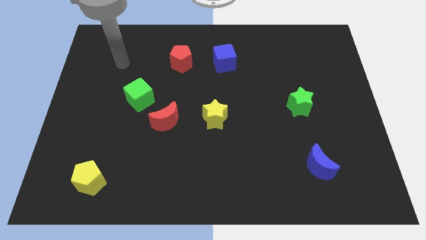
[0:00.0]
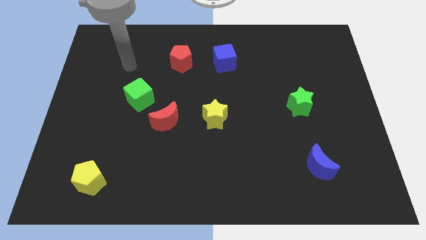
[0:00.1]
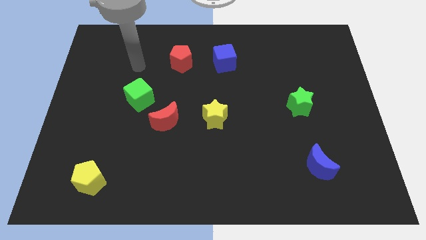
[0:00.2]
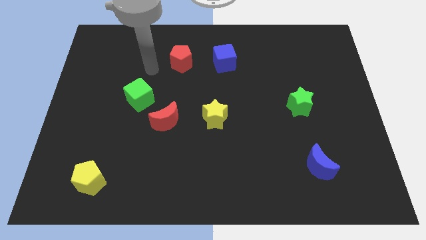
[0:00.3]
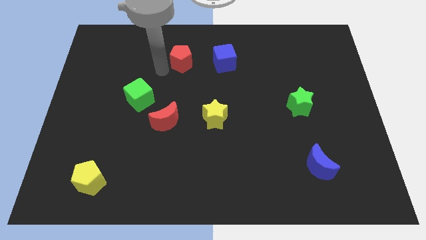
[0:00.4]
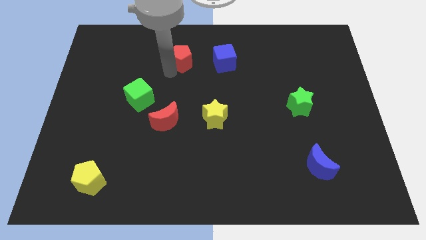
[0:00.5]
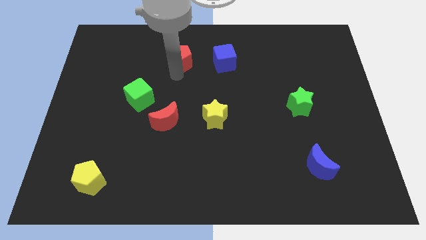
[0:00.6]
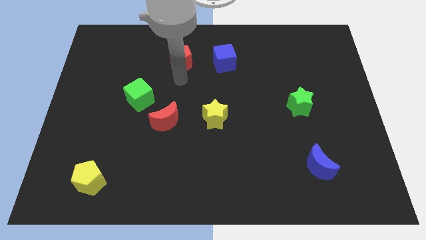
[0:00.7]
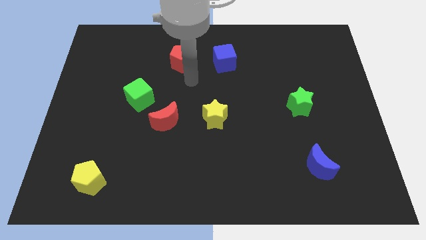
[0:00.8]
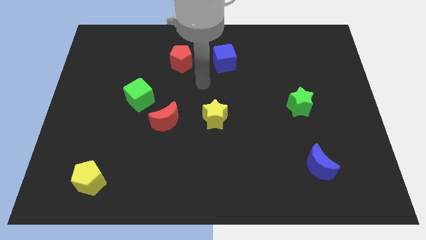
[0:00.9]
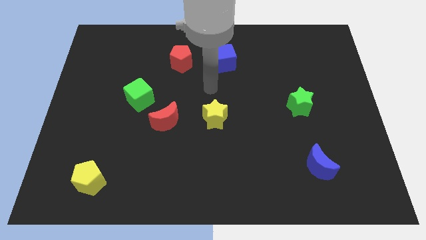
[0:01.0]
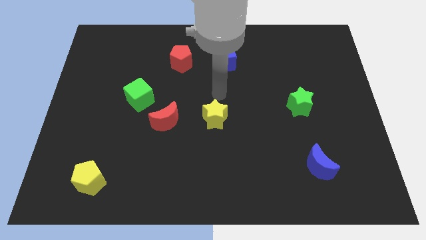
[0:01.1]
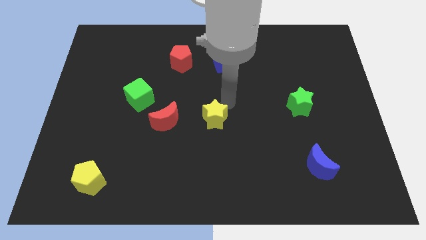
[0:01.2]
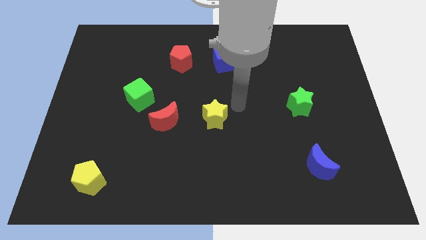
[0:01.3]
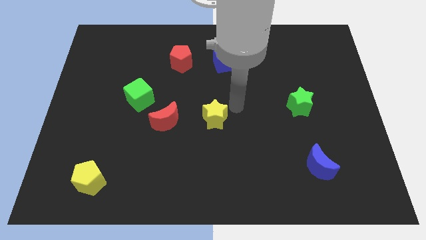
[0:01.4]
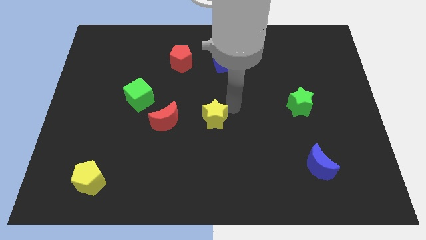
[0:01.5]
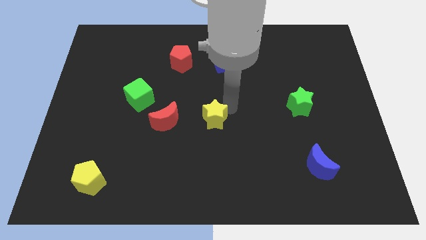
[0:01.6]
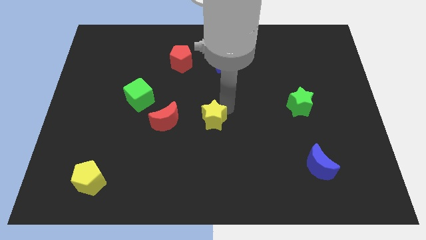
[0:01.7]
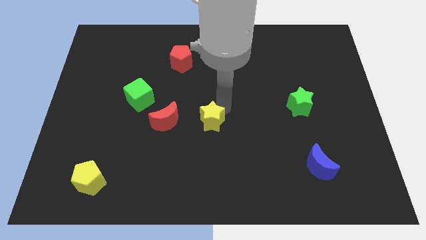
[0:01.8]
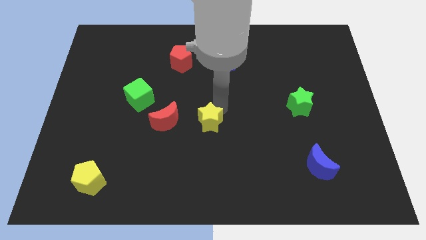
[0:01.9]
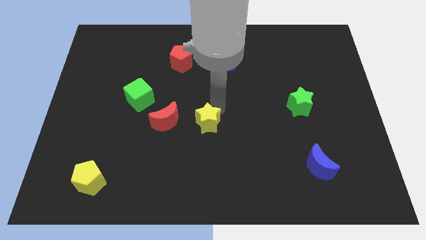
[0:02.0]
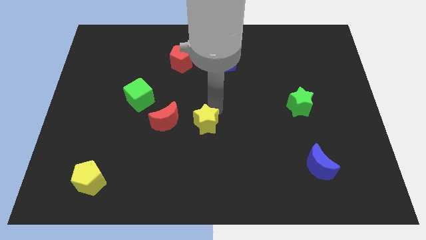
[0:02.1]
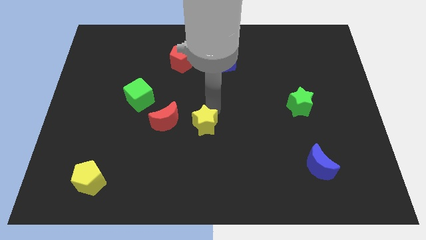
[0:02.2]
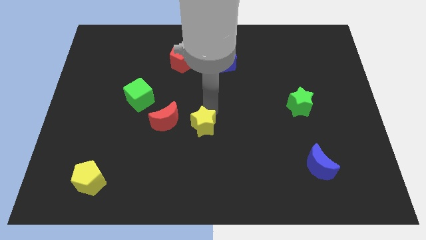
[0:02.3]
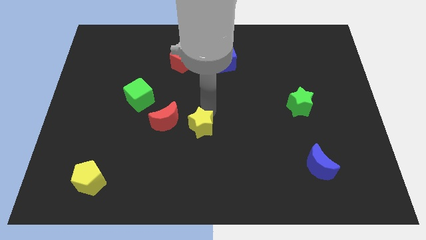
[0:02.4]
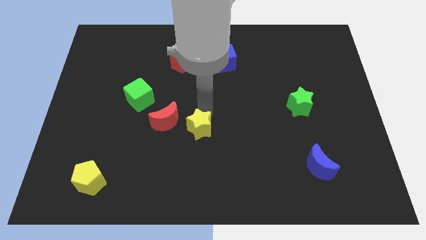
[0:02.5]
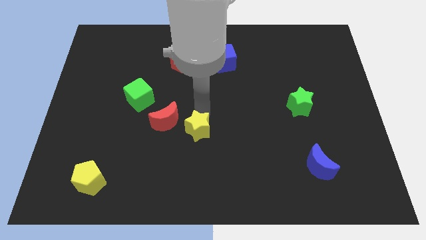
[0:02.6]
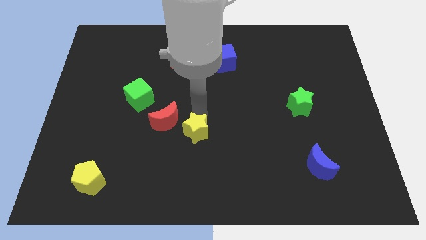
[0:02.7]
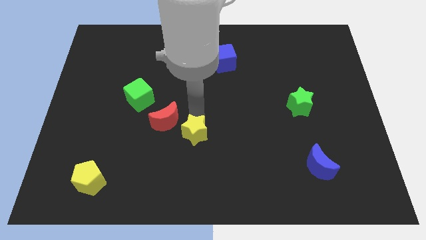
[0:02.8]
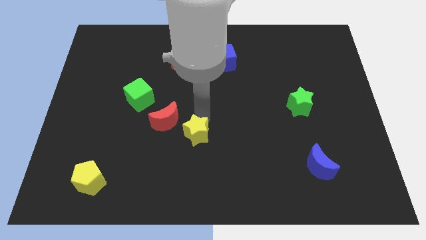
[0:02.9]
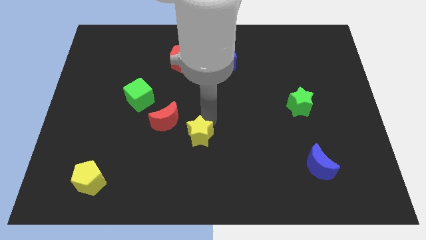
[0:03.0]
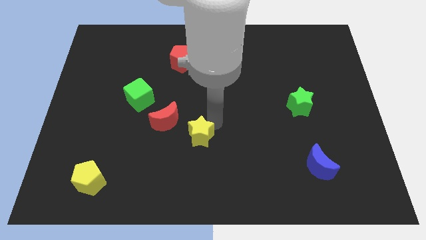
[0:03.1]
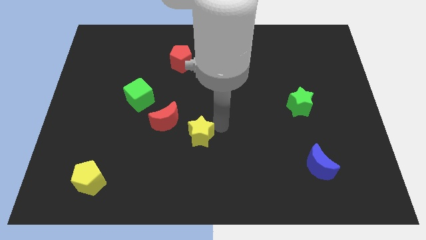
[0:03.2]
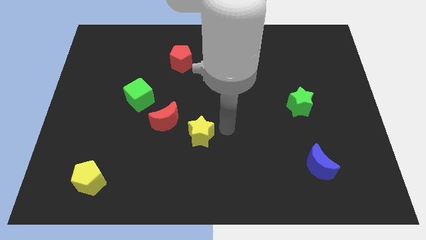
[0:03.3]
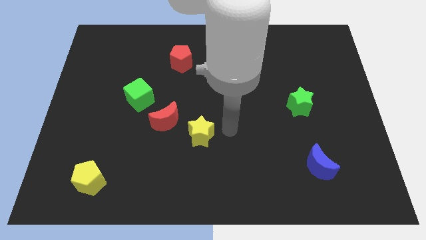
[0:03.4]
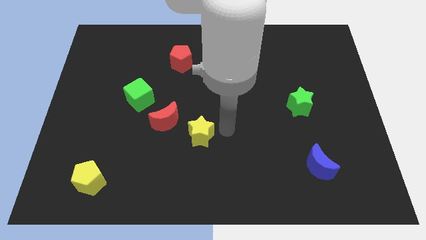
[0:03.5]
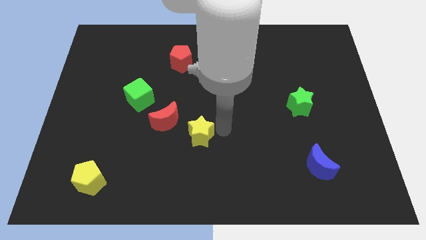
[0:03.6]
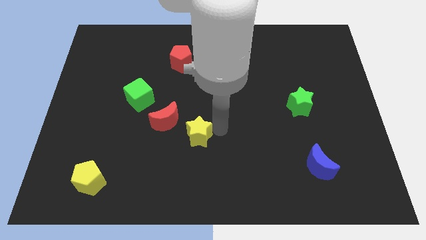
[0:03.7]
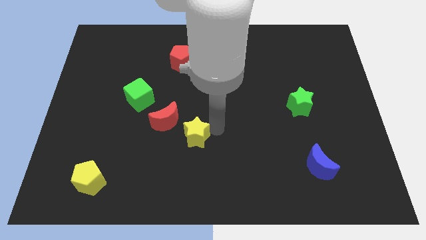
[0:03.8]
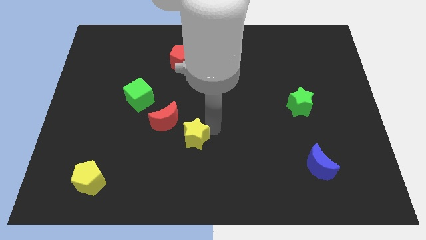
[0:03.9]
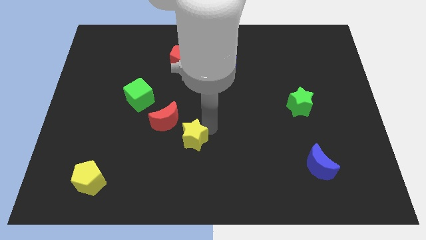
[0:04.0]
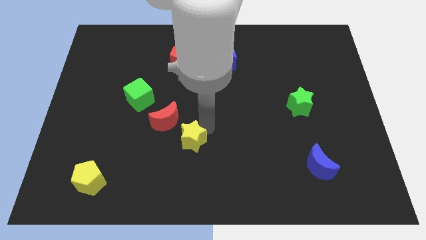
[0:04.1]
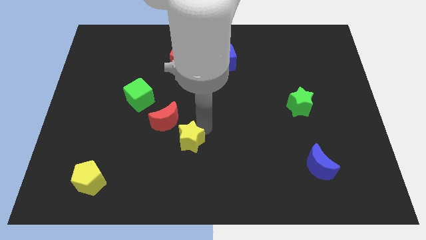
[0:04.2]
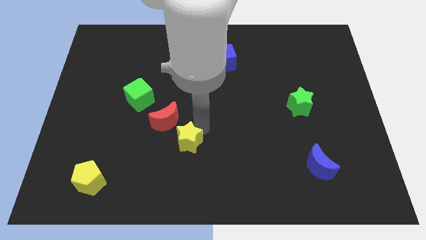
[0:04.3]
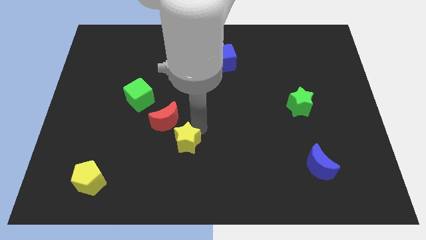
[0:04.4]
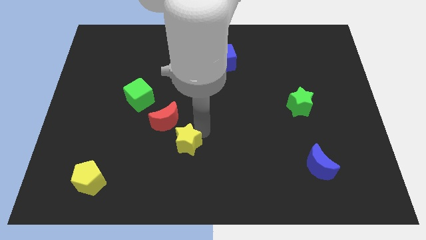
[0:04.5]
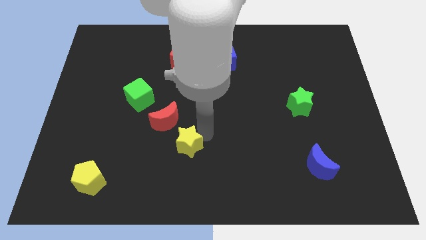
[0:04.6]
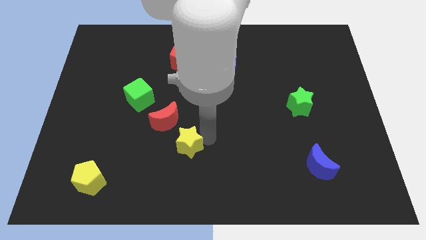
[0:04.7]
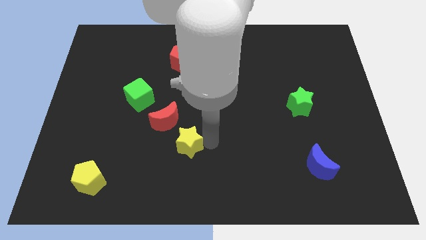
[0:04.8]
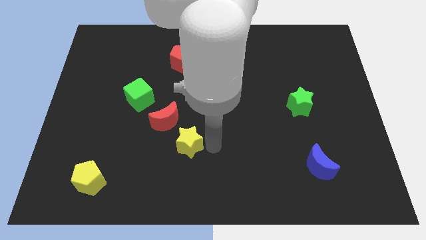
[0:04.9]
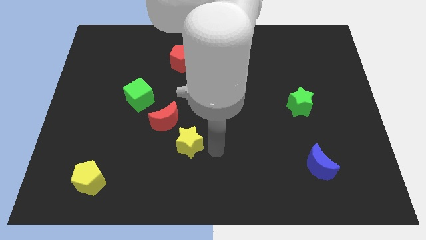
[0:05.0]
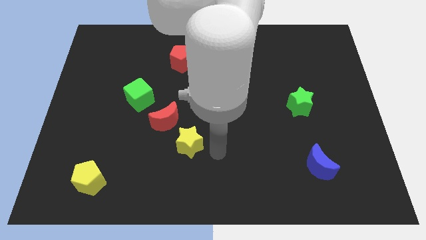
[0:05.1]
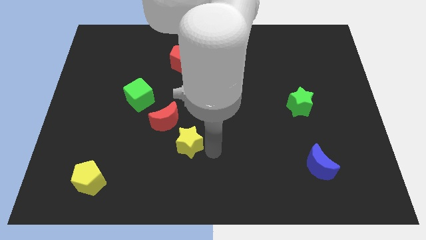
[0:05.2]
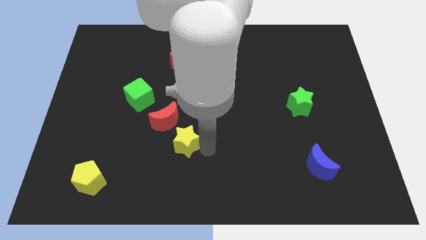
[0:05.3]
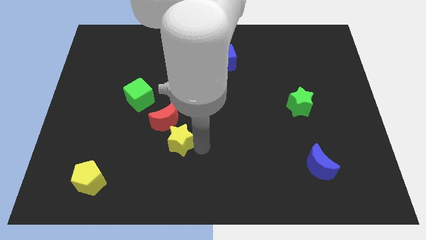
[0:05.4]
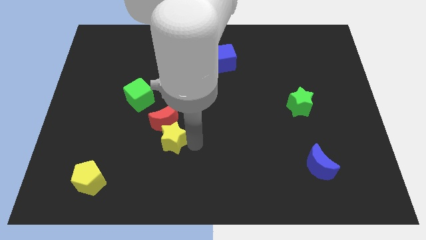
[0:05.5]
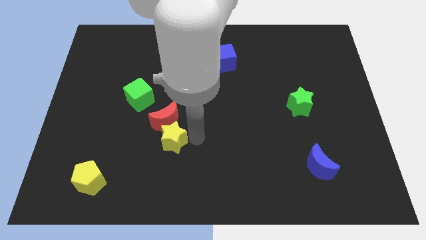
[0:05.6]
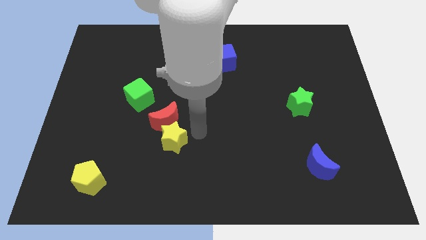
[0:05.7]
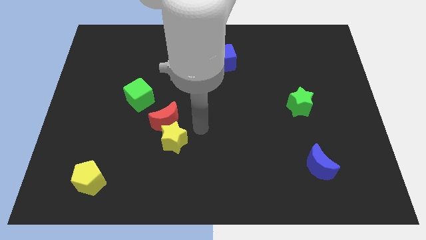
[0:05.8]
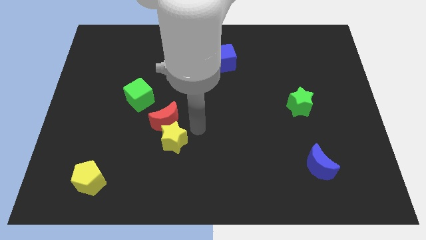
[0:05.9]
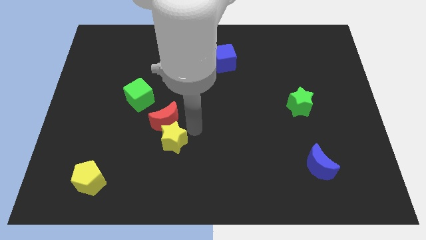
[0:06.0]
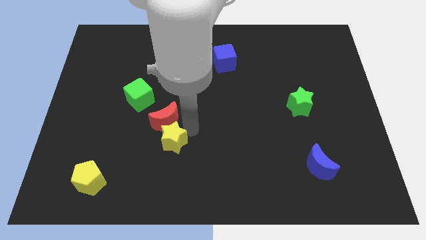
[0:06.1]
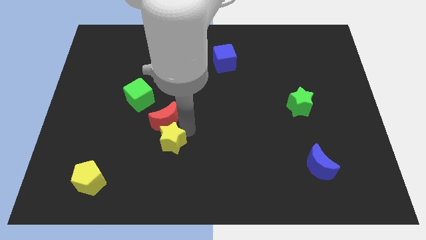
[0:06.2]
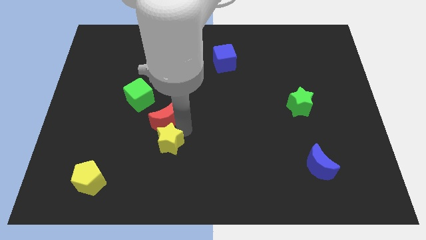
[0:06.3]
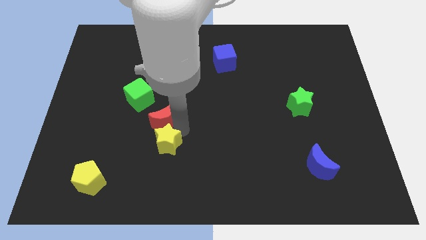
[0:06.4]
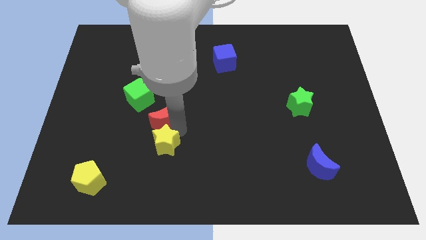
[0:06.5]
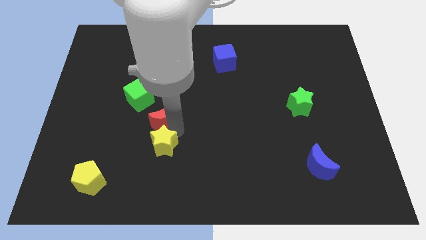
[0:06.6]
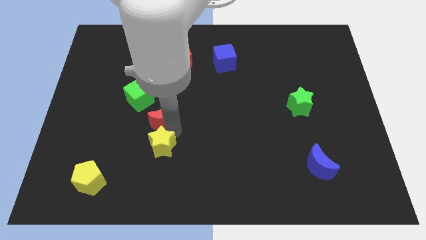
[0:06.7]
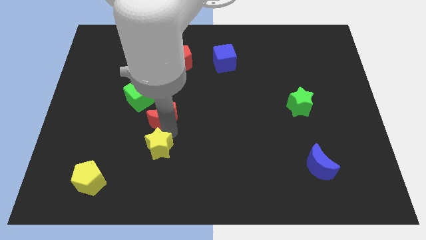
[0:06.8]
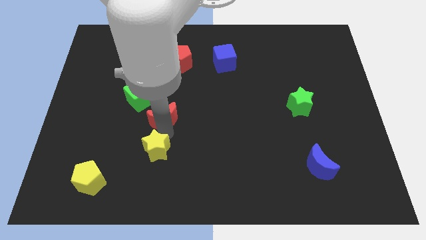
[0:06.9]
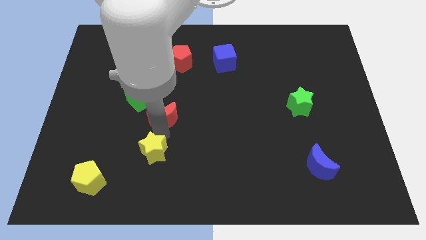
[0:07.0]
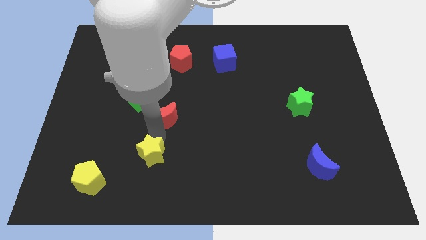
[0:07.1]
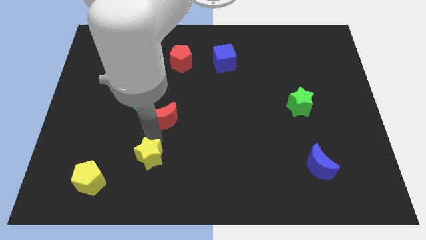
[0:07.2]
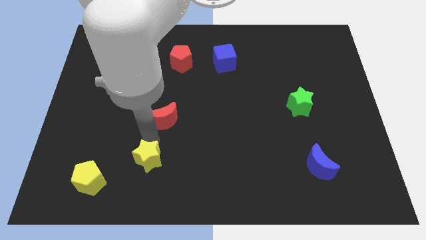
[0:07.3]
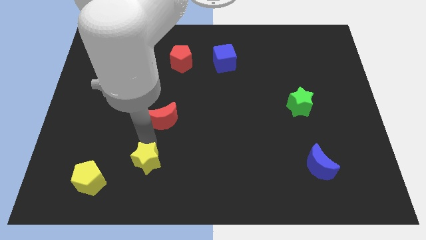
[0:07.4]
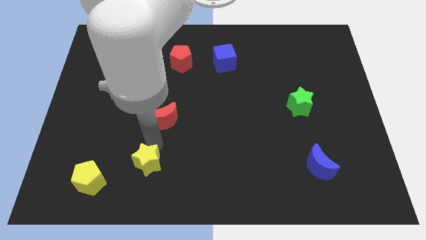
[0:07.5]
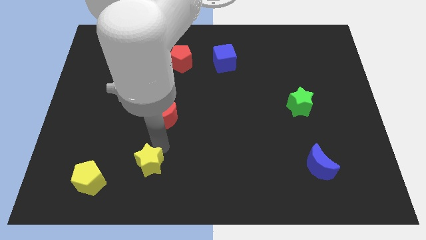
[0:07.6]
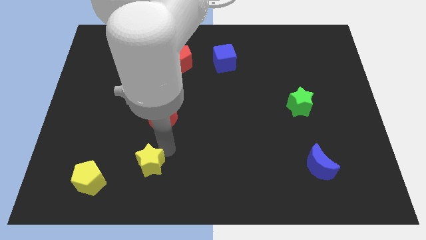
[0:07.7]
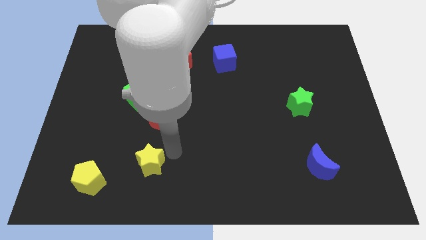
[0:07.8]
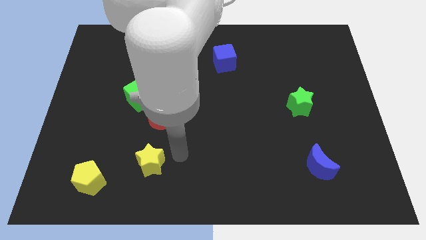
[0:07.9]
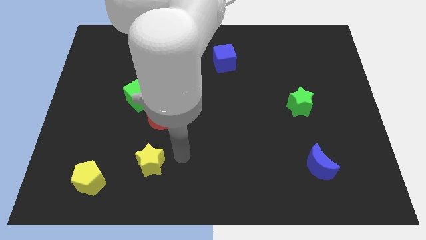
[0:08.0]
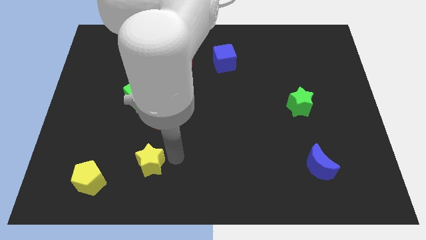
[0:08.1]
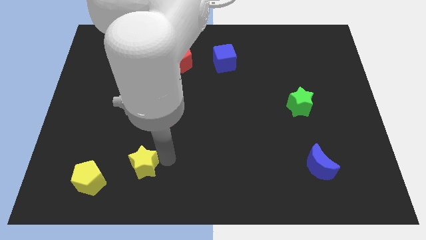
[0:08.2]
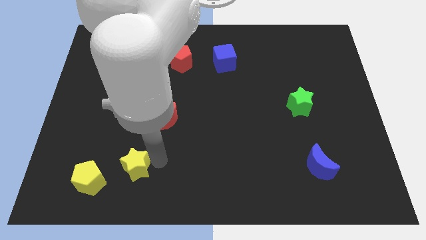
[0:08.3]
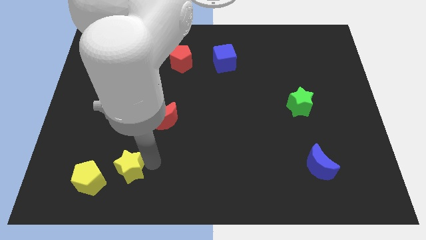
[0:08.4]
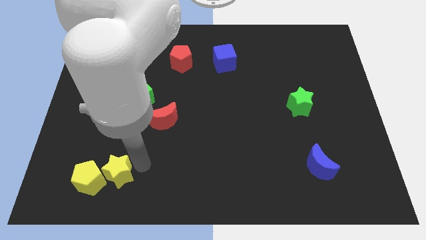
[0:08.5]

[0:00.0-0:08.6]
slide the yellow star next to the yellow pentagon
